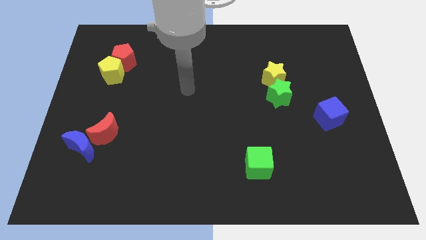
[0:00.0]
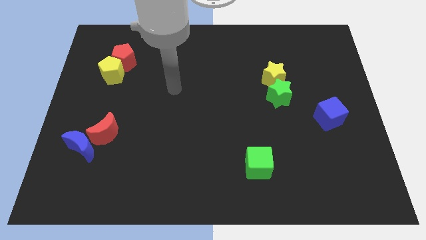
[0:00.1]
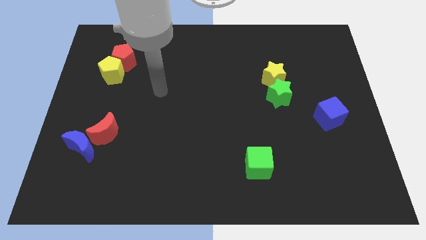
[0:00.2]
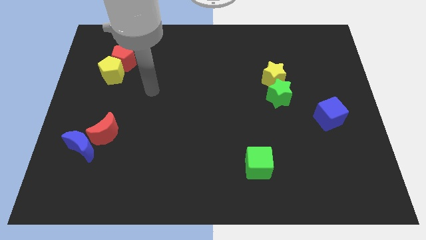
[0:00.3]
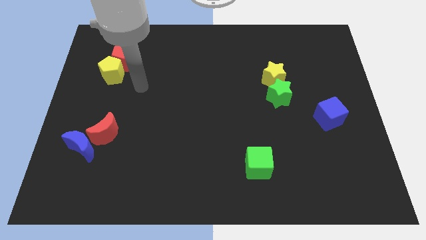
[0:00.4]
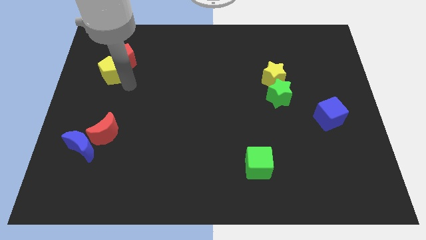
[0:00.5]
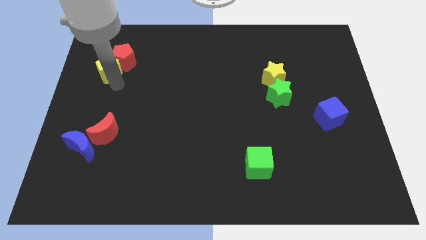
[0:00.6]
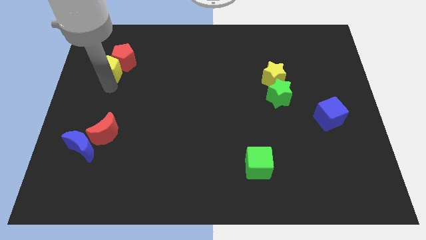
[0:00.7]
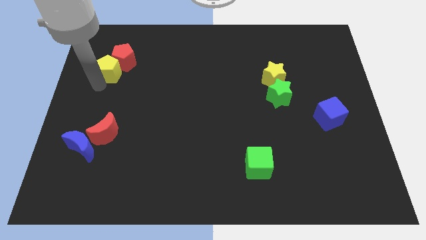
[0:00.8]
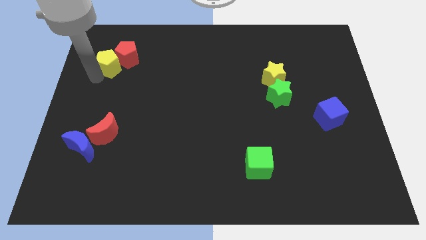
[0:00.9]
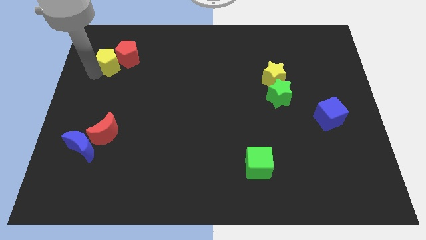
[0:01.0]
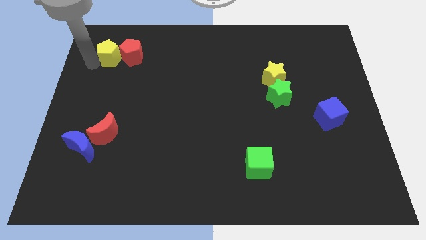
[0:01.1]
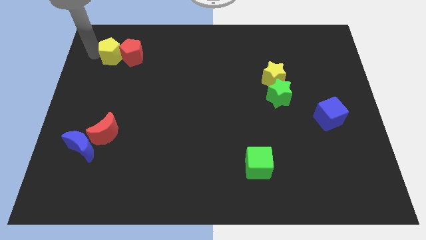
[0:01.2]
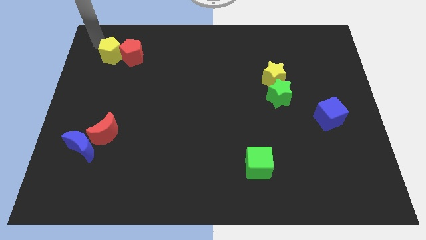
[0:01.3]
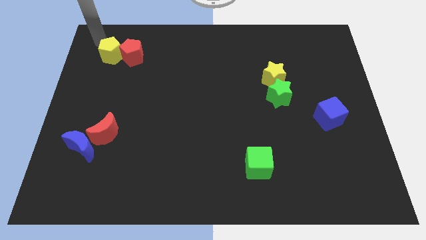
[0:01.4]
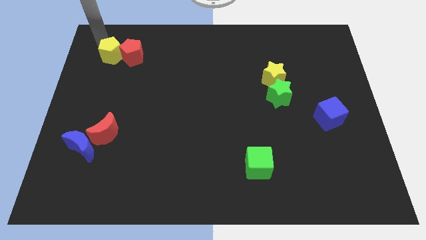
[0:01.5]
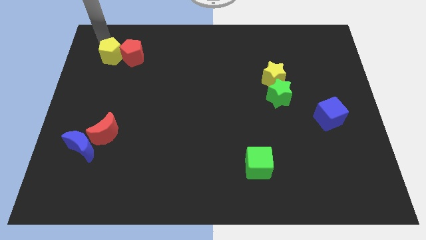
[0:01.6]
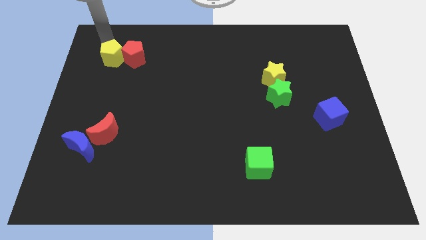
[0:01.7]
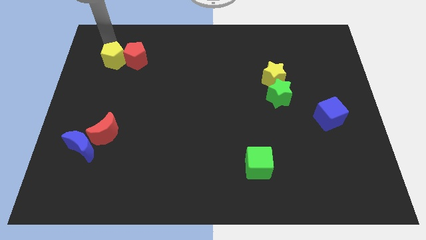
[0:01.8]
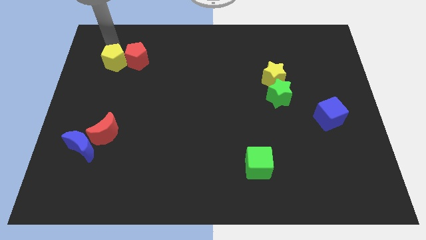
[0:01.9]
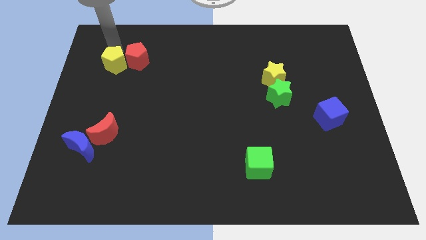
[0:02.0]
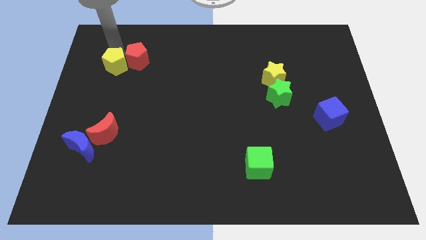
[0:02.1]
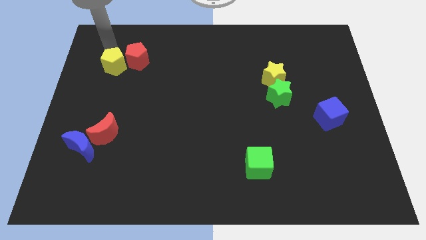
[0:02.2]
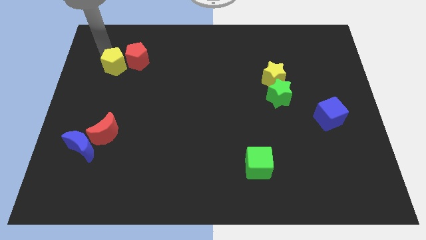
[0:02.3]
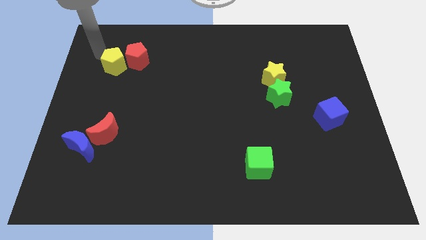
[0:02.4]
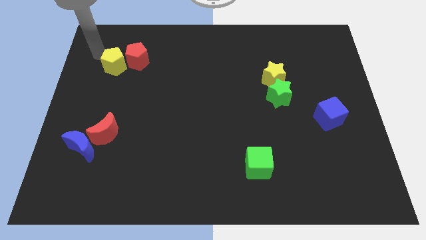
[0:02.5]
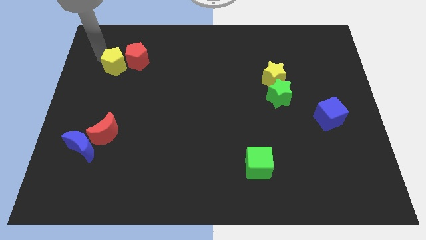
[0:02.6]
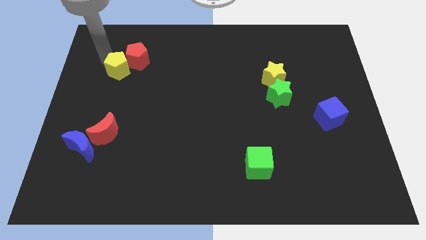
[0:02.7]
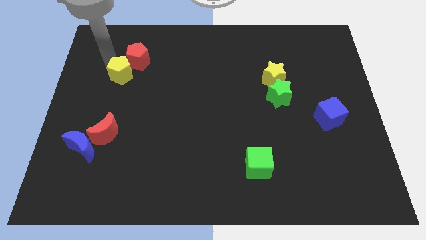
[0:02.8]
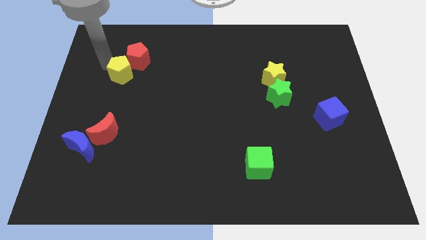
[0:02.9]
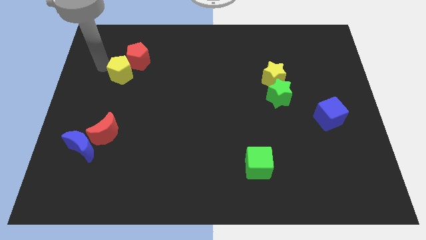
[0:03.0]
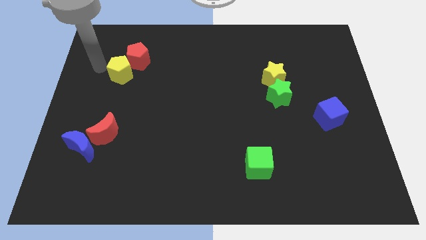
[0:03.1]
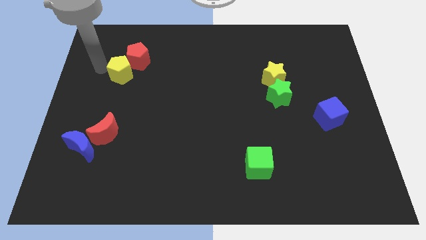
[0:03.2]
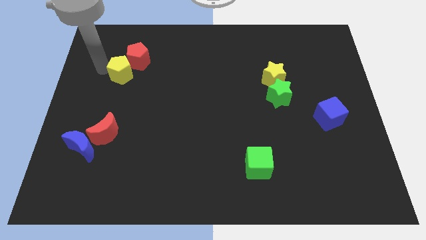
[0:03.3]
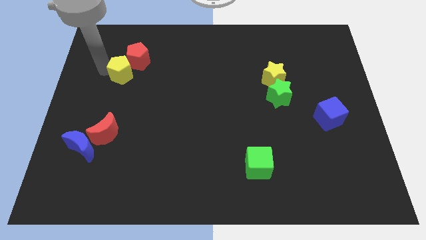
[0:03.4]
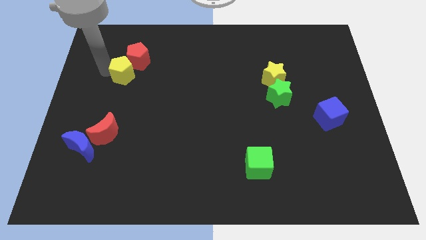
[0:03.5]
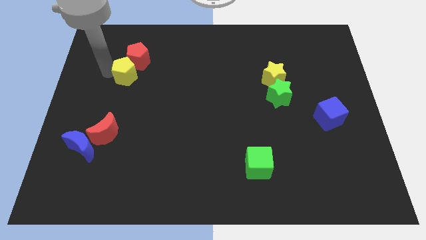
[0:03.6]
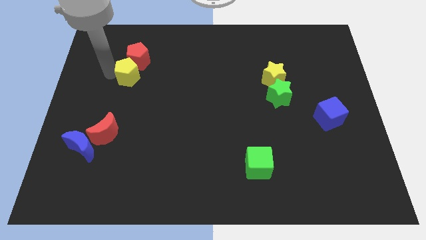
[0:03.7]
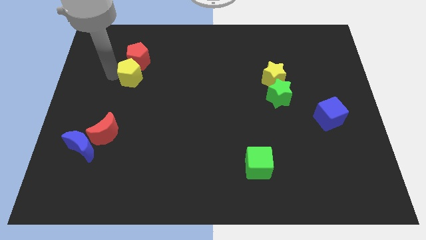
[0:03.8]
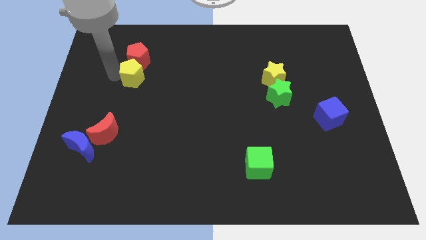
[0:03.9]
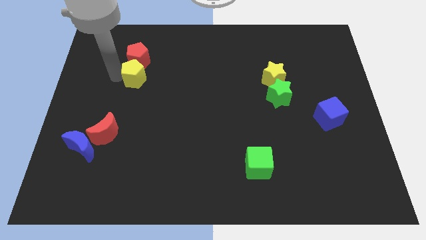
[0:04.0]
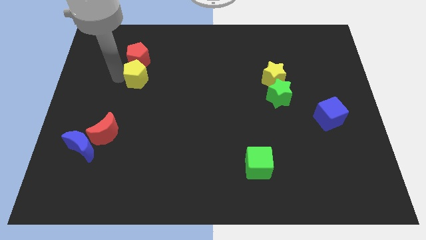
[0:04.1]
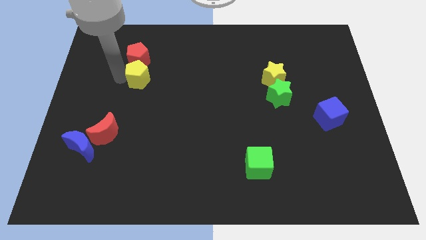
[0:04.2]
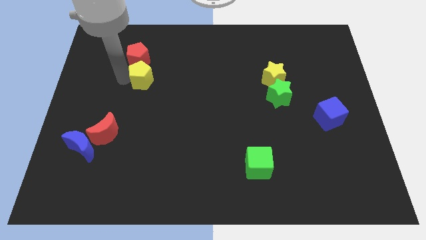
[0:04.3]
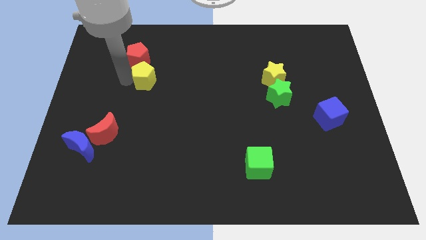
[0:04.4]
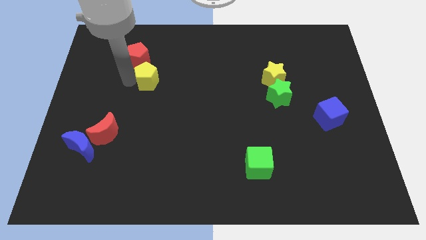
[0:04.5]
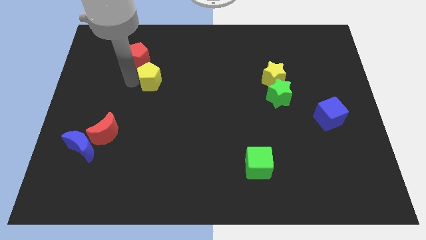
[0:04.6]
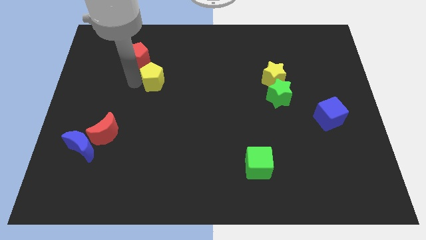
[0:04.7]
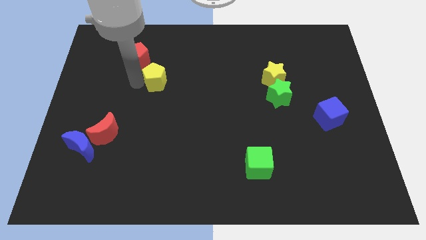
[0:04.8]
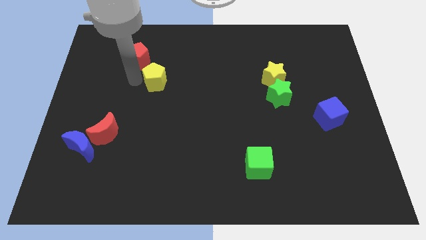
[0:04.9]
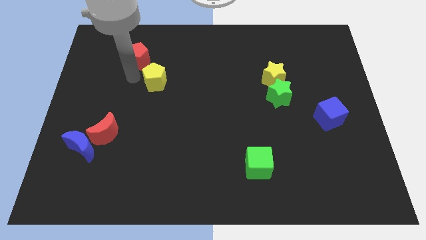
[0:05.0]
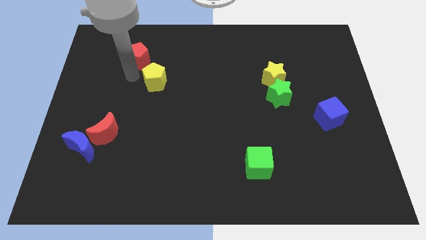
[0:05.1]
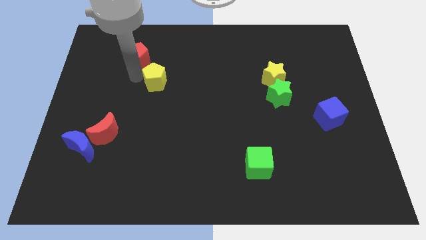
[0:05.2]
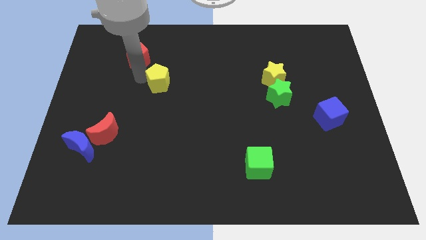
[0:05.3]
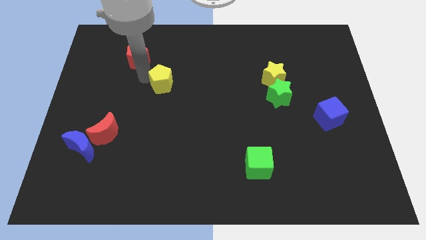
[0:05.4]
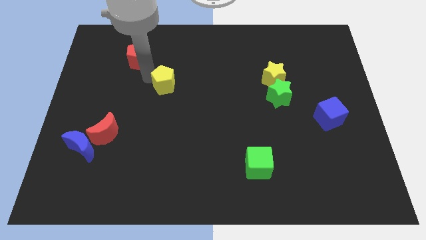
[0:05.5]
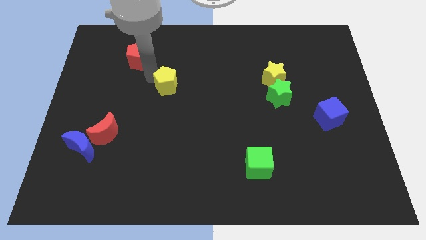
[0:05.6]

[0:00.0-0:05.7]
slide the yellow pentagon to the center
